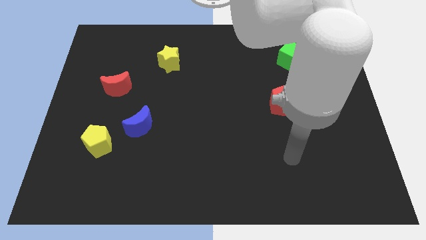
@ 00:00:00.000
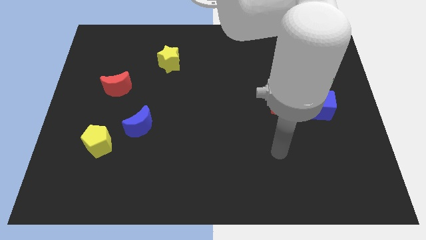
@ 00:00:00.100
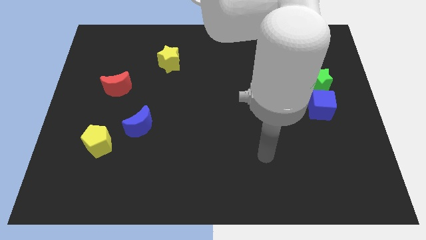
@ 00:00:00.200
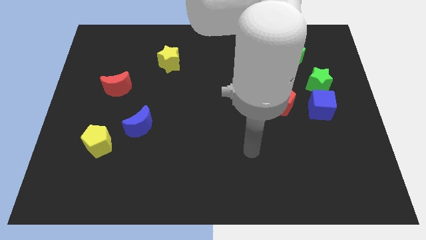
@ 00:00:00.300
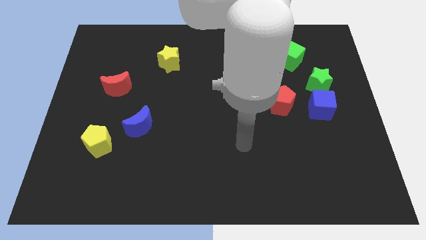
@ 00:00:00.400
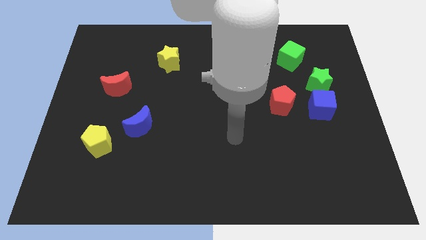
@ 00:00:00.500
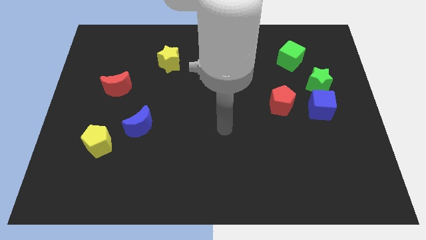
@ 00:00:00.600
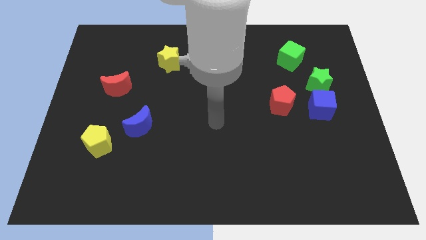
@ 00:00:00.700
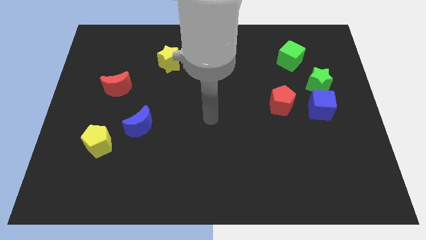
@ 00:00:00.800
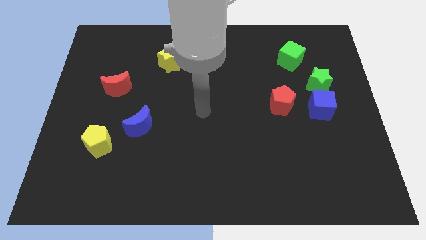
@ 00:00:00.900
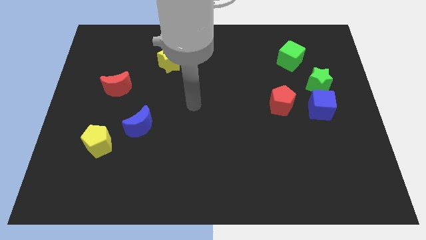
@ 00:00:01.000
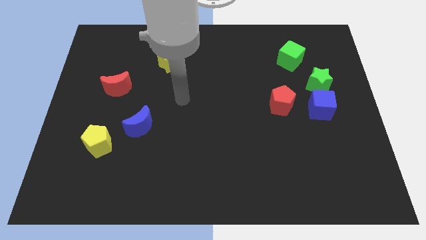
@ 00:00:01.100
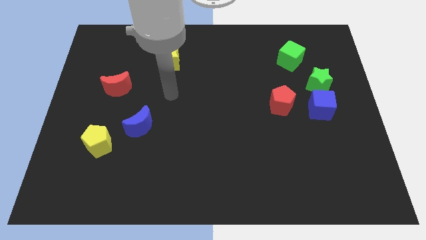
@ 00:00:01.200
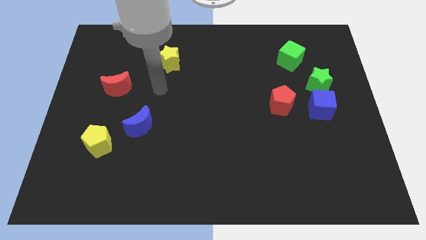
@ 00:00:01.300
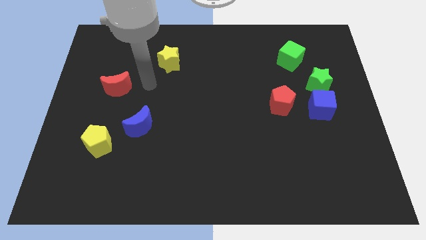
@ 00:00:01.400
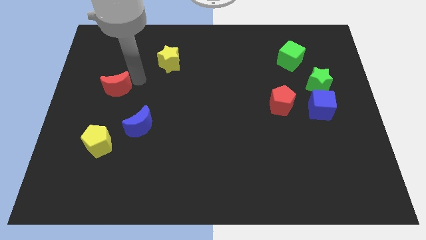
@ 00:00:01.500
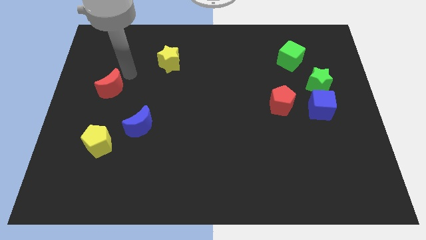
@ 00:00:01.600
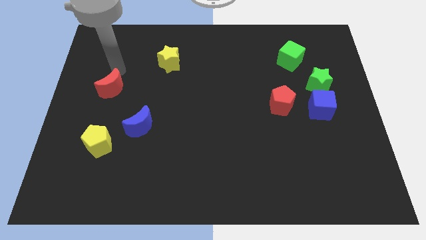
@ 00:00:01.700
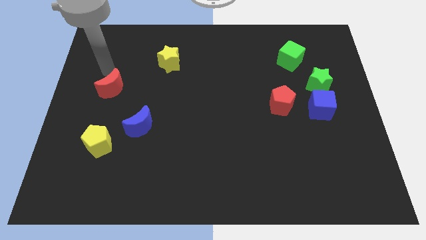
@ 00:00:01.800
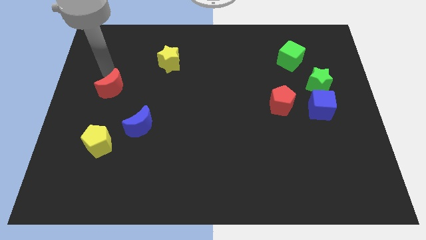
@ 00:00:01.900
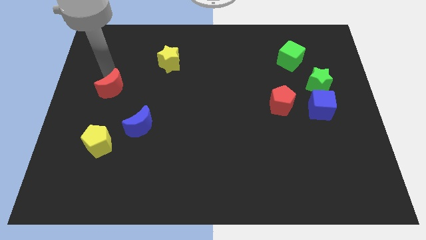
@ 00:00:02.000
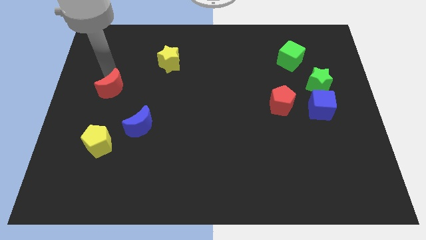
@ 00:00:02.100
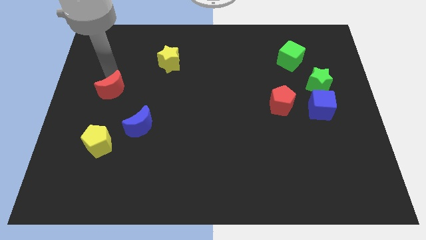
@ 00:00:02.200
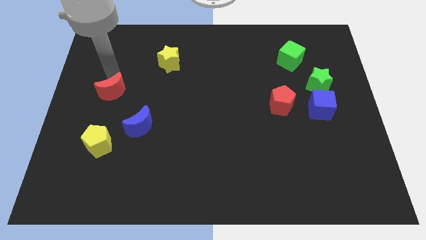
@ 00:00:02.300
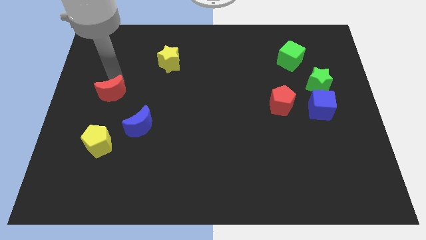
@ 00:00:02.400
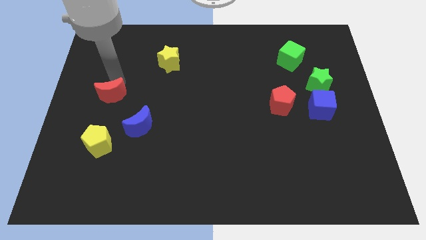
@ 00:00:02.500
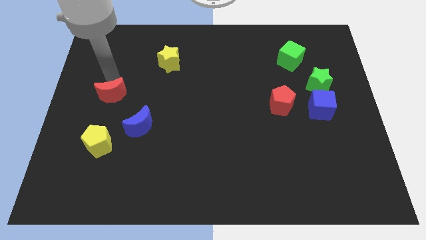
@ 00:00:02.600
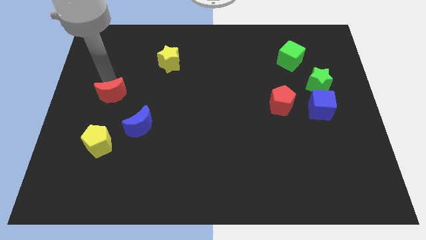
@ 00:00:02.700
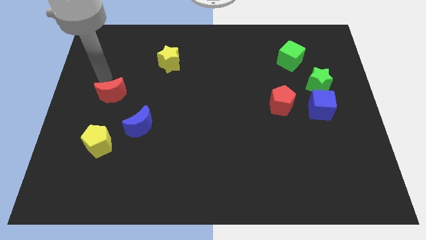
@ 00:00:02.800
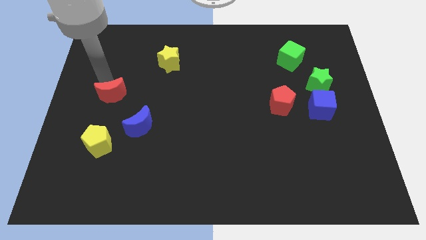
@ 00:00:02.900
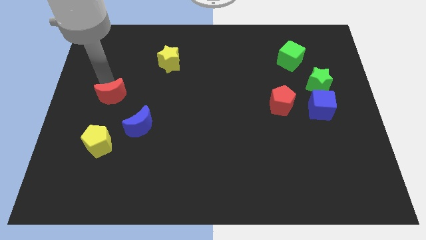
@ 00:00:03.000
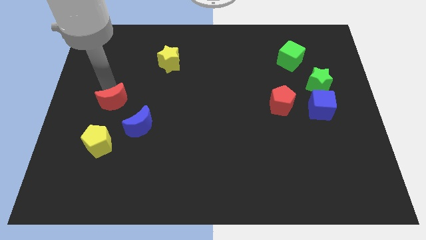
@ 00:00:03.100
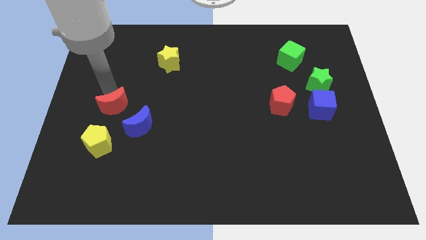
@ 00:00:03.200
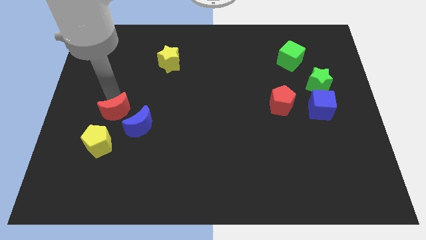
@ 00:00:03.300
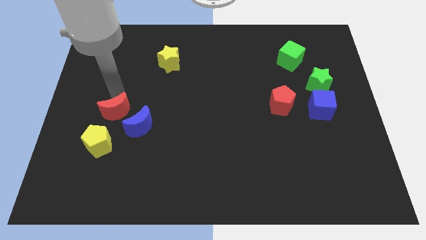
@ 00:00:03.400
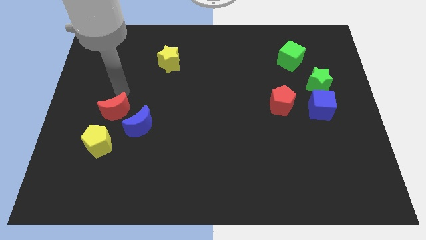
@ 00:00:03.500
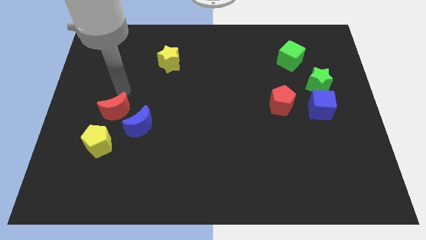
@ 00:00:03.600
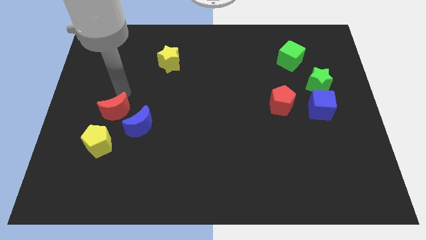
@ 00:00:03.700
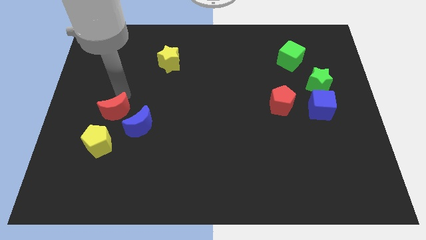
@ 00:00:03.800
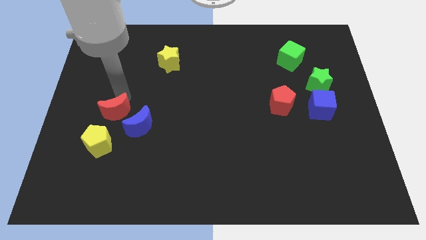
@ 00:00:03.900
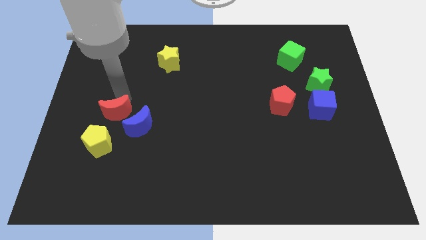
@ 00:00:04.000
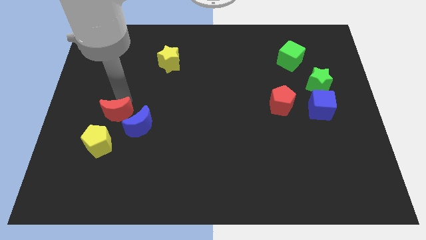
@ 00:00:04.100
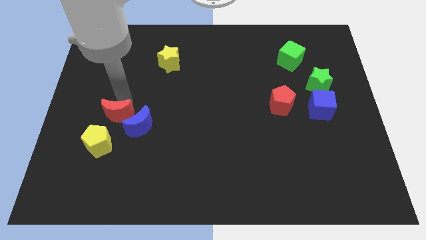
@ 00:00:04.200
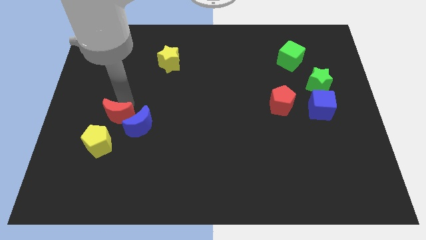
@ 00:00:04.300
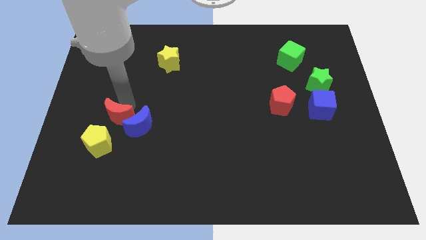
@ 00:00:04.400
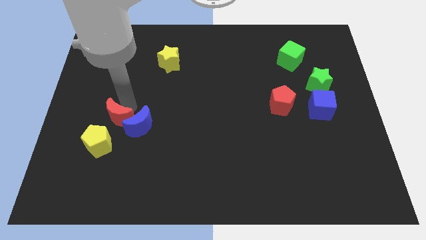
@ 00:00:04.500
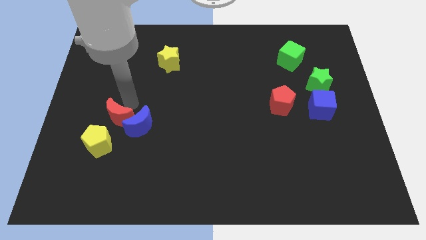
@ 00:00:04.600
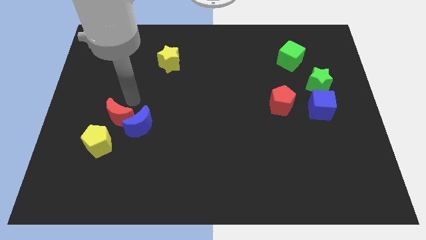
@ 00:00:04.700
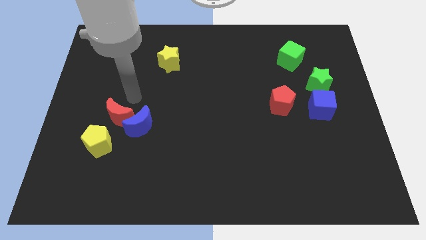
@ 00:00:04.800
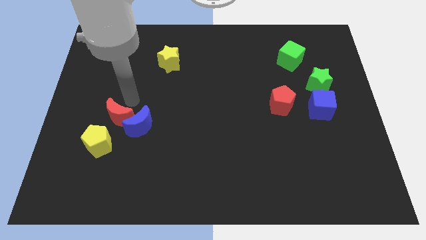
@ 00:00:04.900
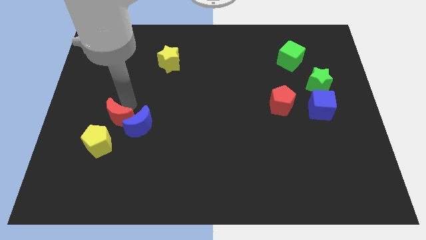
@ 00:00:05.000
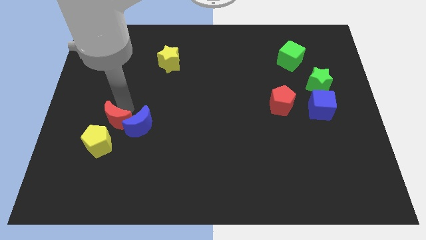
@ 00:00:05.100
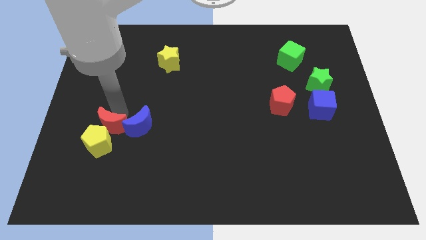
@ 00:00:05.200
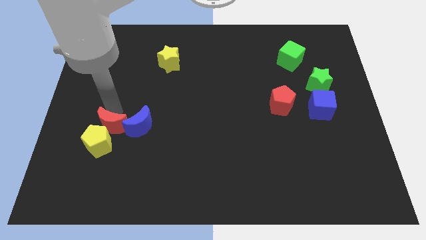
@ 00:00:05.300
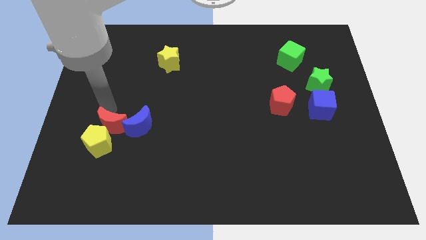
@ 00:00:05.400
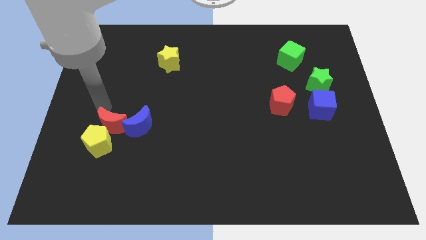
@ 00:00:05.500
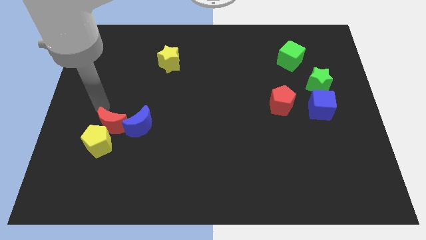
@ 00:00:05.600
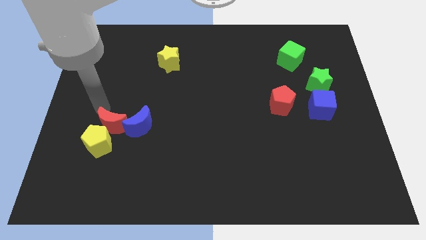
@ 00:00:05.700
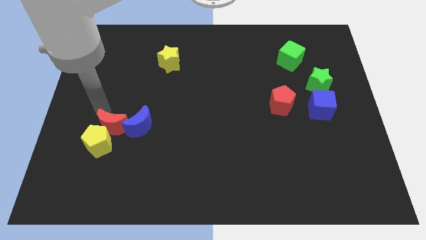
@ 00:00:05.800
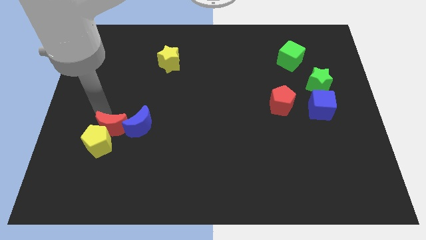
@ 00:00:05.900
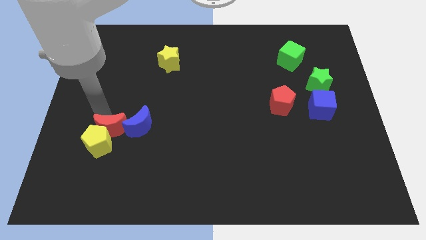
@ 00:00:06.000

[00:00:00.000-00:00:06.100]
push the red moon right of the yellow pentagon
